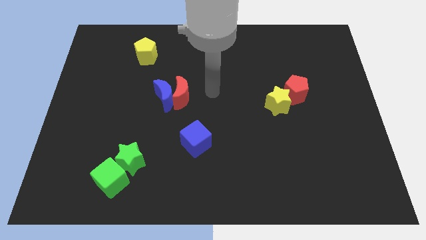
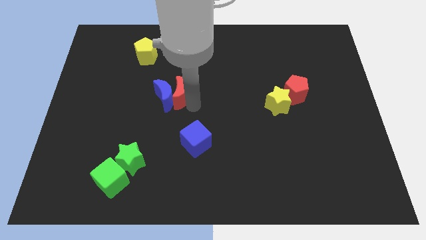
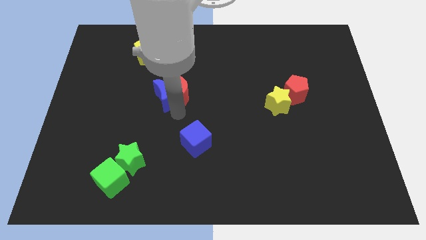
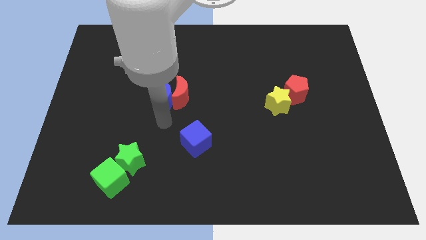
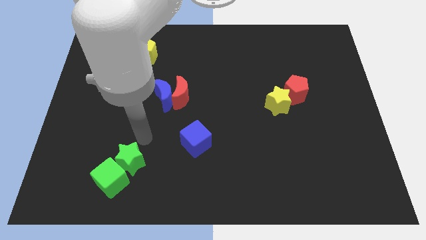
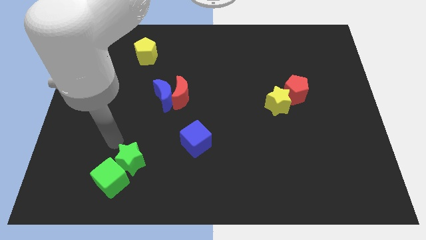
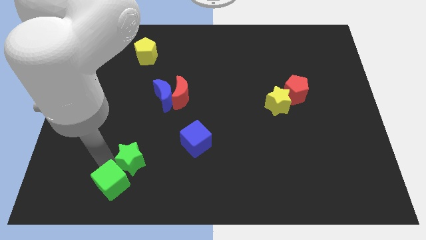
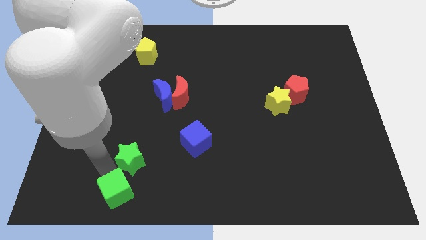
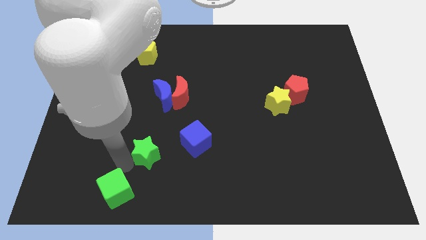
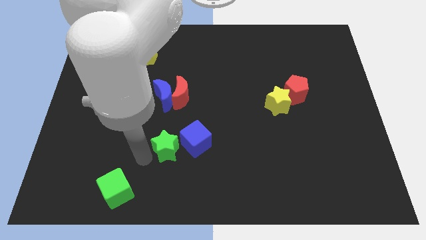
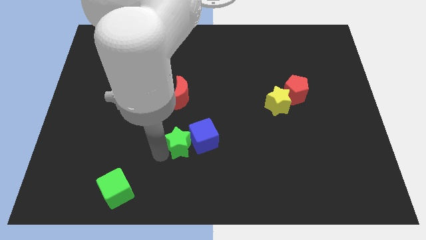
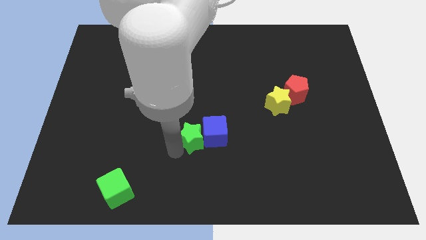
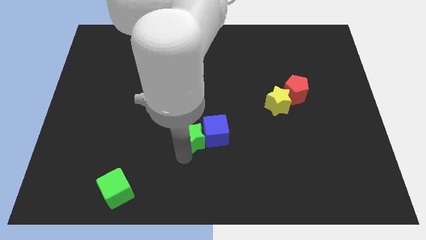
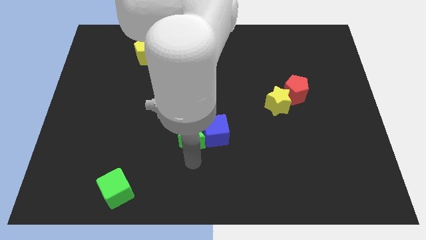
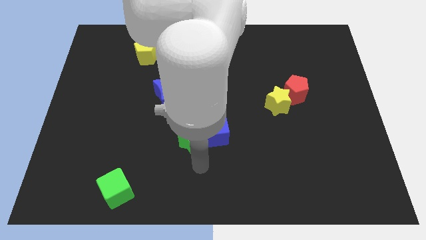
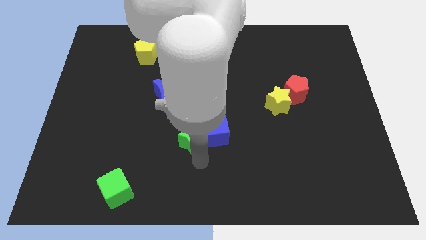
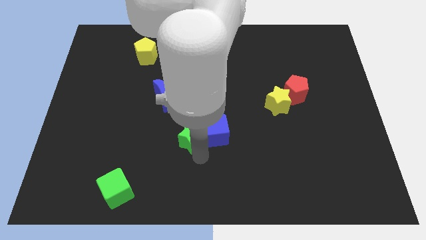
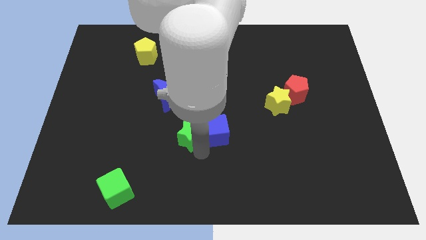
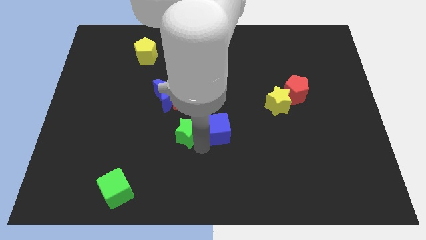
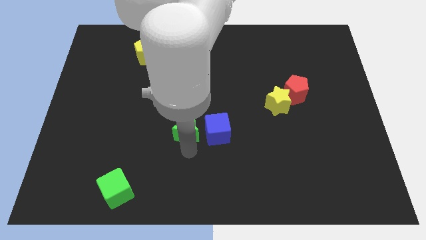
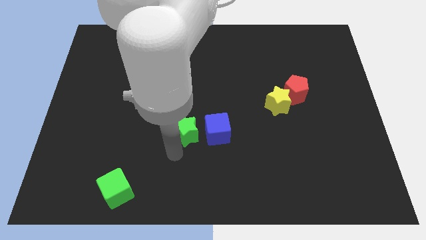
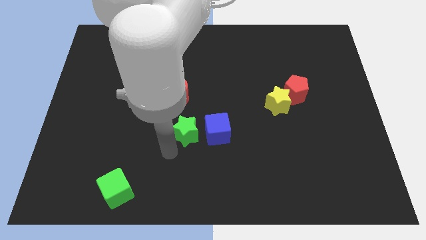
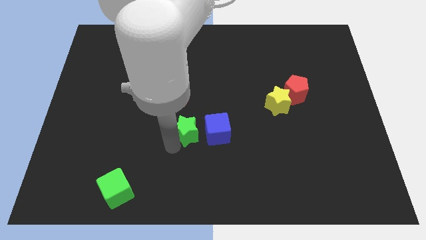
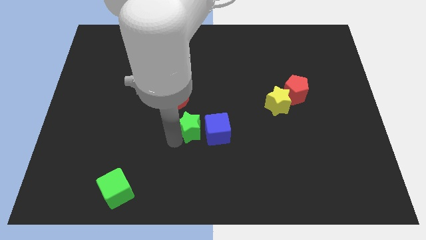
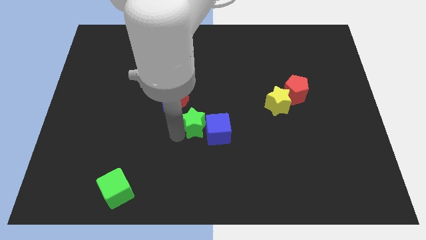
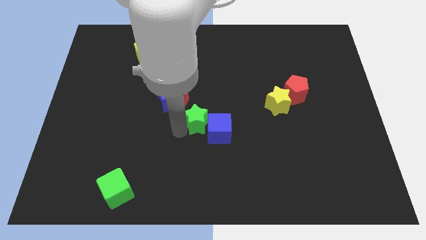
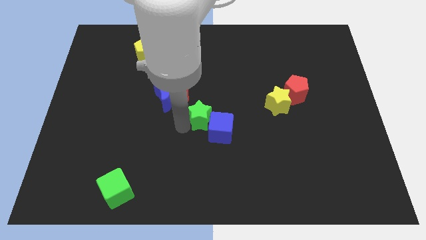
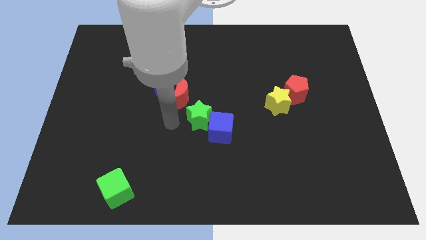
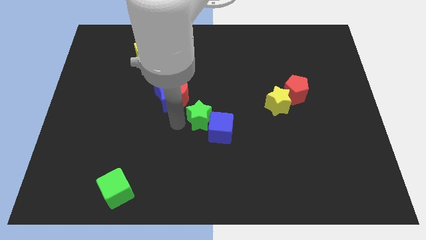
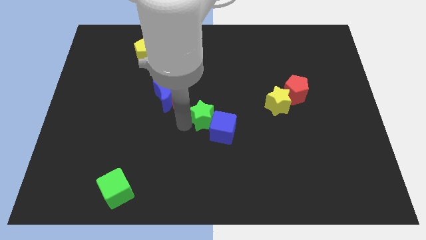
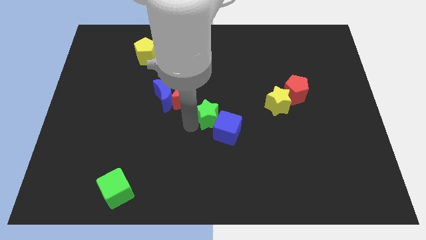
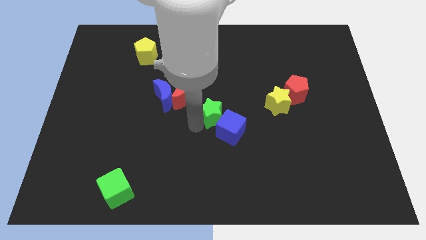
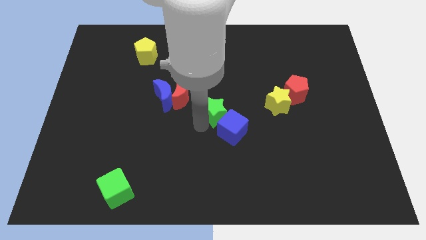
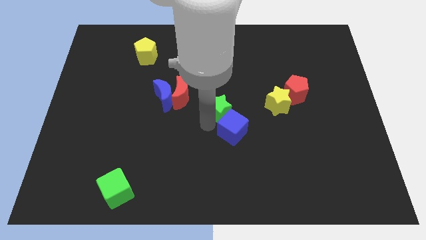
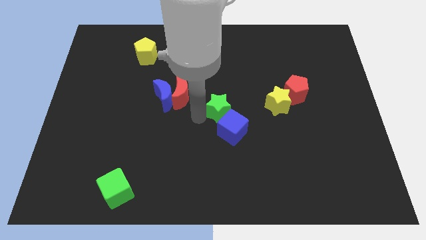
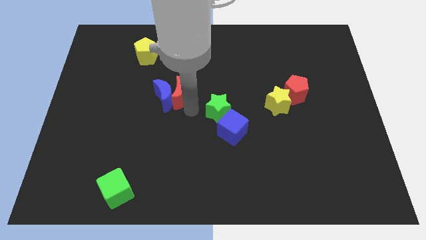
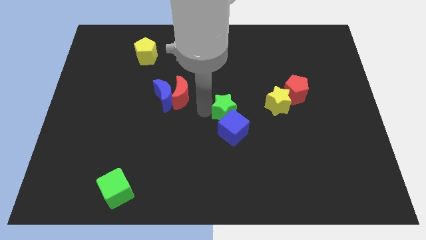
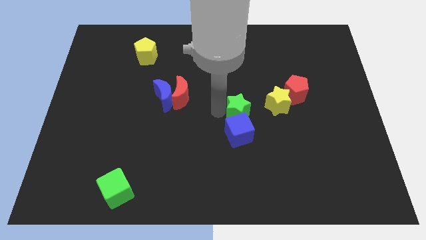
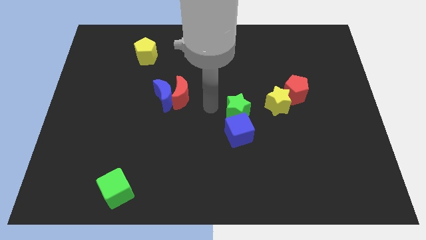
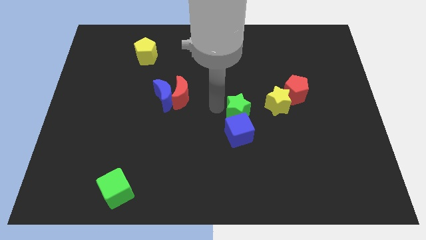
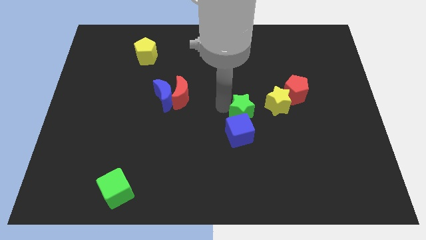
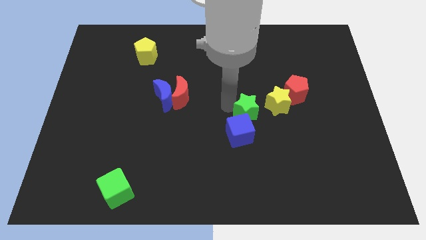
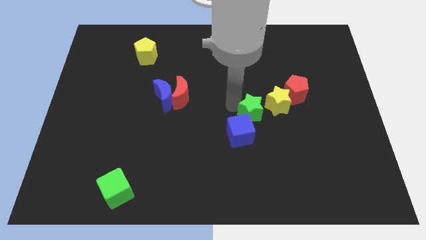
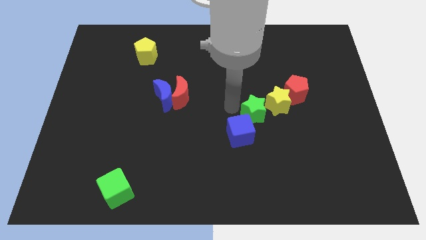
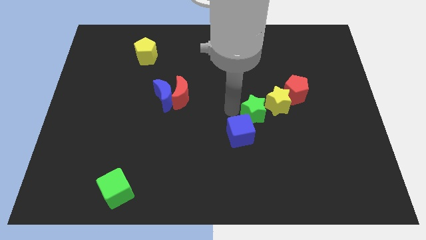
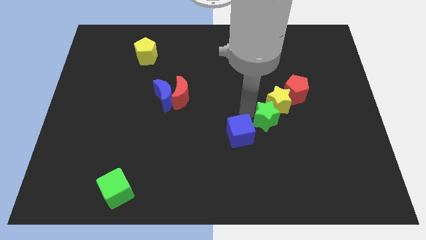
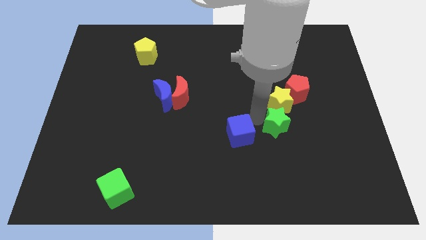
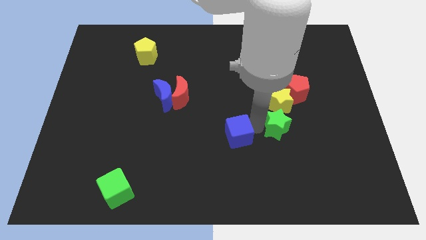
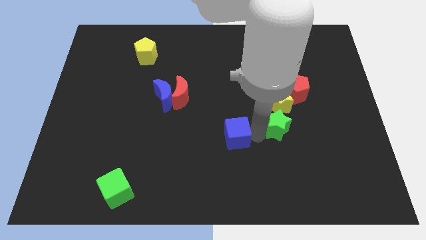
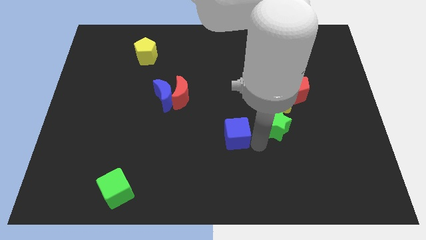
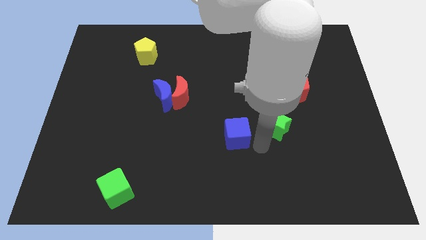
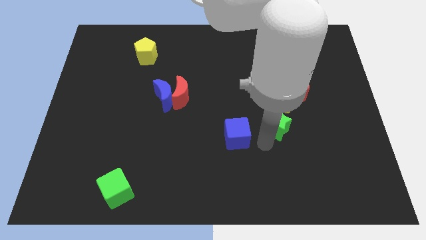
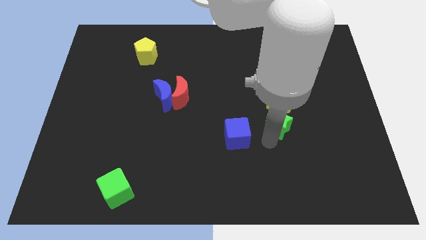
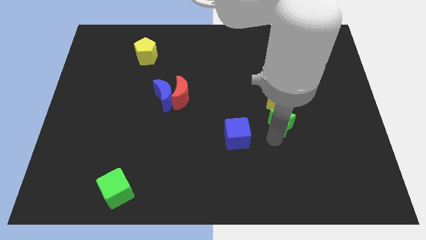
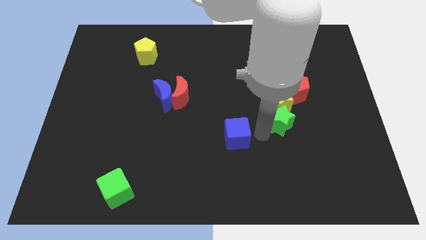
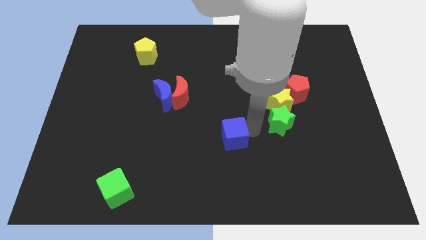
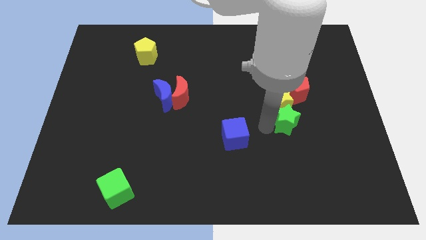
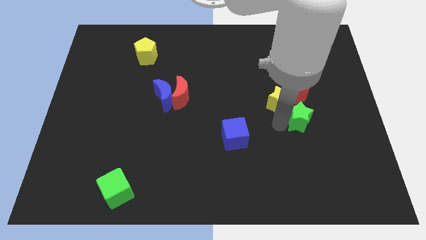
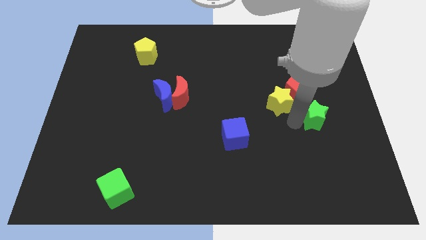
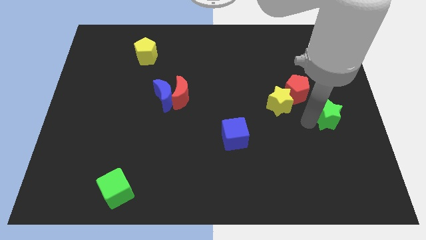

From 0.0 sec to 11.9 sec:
put the green star to the right side of the board
